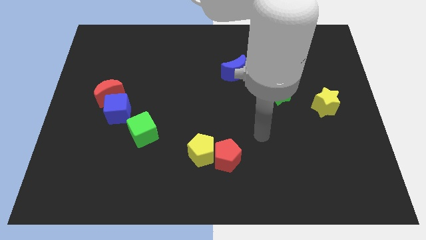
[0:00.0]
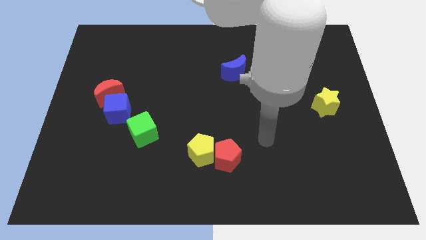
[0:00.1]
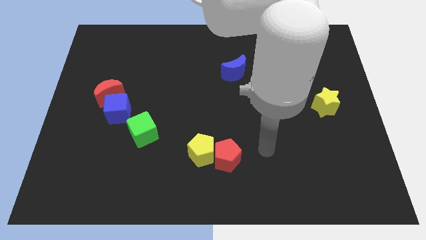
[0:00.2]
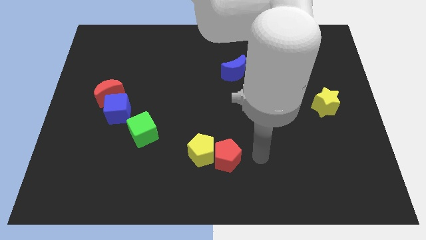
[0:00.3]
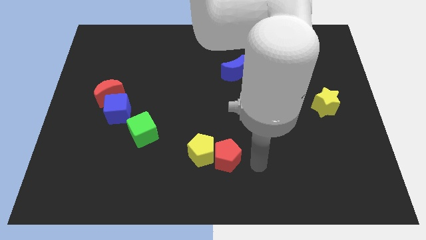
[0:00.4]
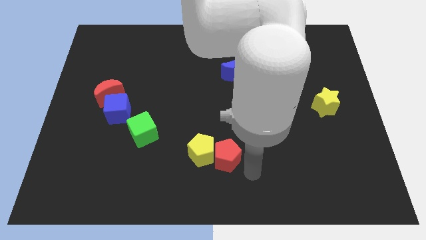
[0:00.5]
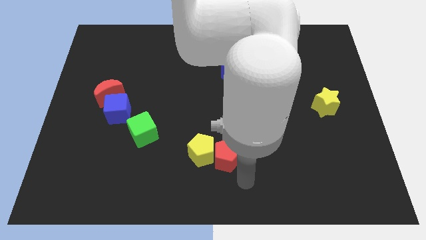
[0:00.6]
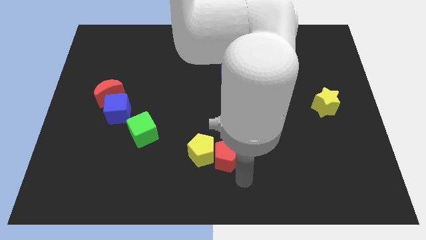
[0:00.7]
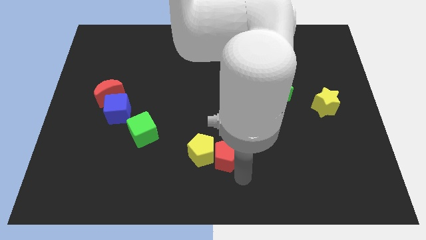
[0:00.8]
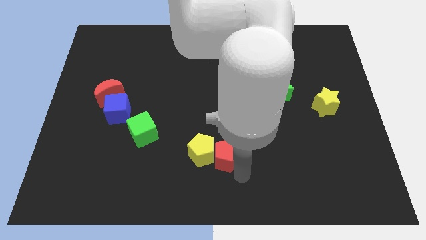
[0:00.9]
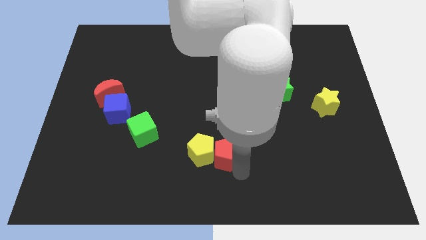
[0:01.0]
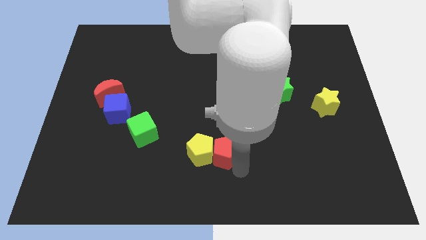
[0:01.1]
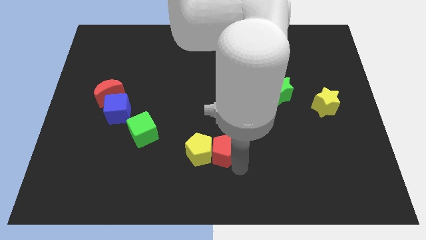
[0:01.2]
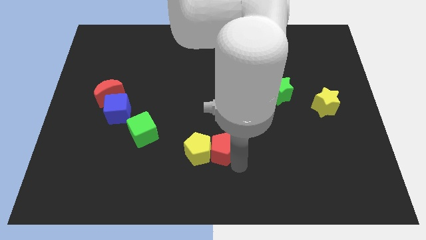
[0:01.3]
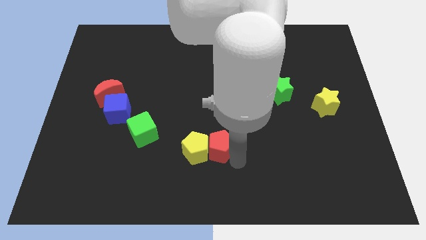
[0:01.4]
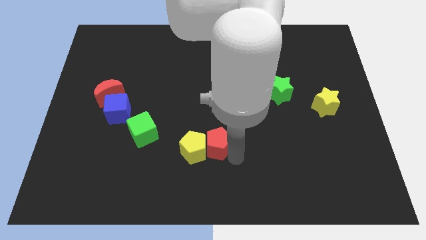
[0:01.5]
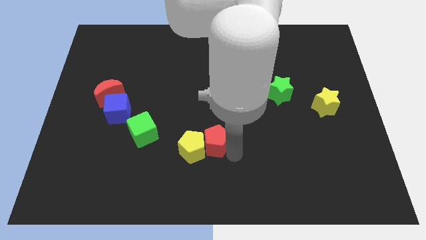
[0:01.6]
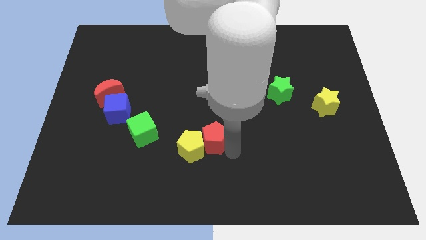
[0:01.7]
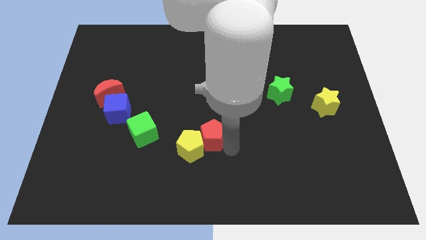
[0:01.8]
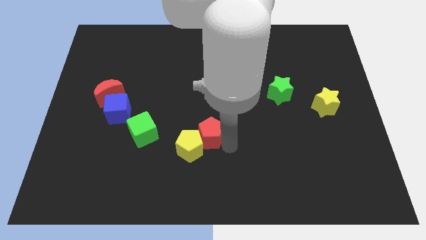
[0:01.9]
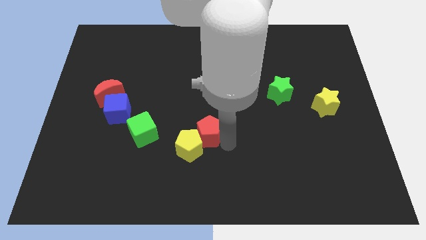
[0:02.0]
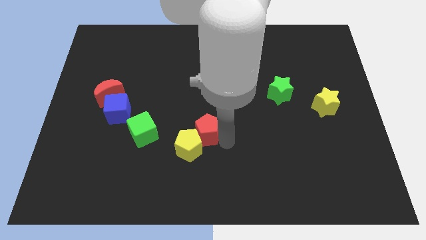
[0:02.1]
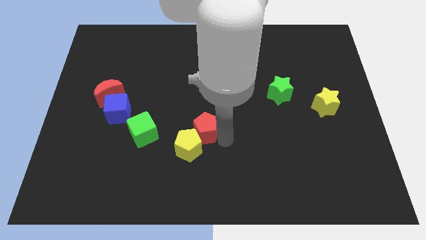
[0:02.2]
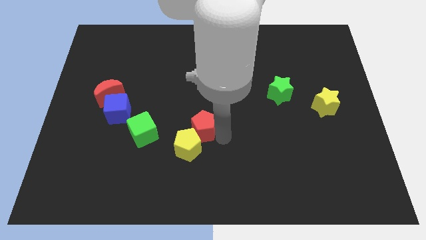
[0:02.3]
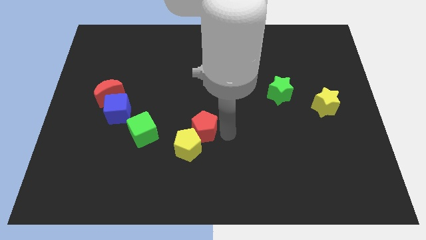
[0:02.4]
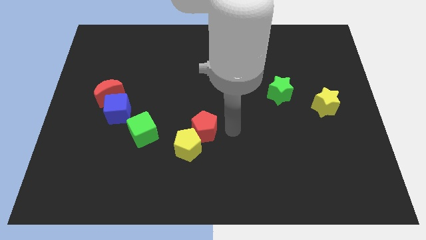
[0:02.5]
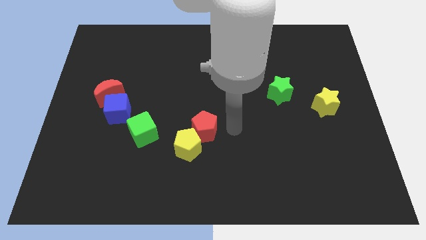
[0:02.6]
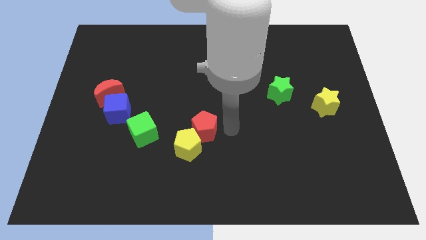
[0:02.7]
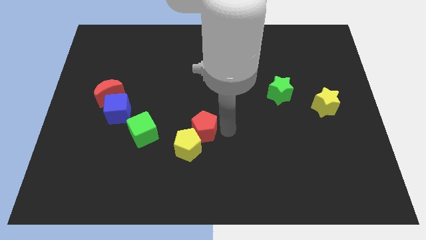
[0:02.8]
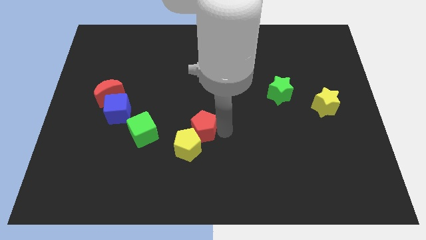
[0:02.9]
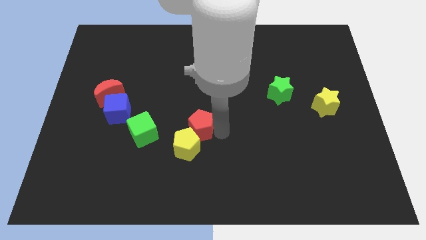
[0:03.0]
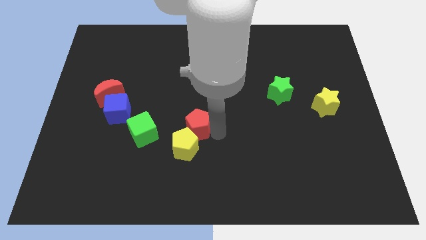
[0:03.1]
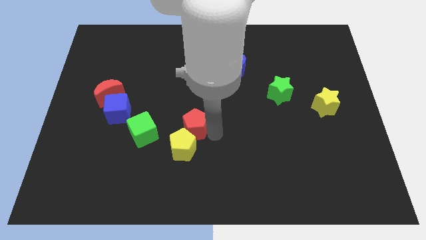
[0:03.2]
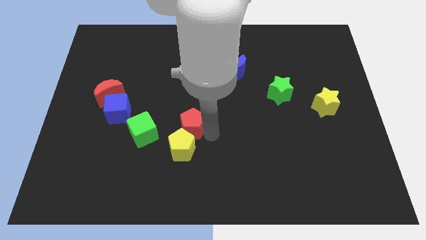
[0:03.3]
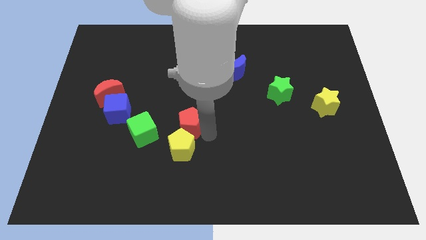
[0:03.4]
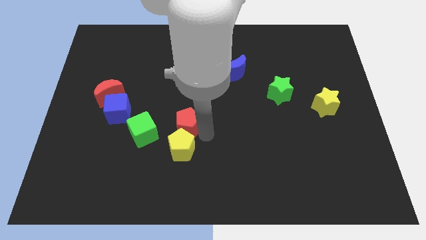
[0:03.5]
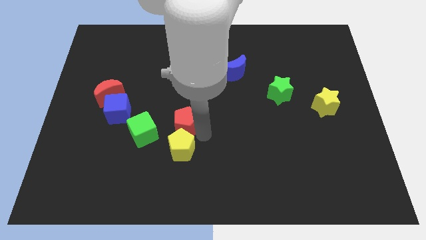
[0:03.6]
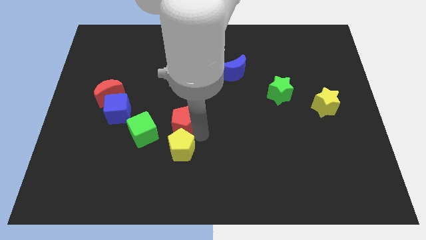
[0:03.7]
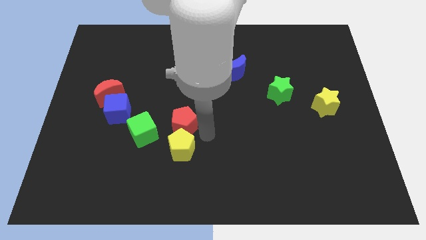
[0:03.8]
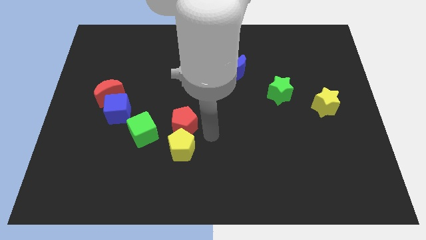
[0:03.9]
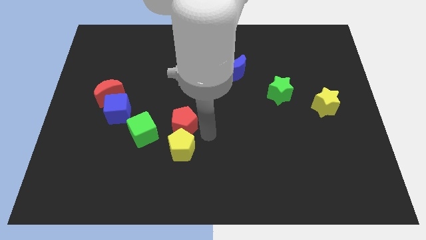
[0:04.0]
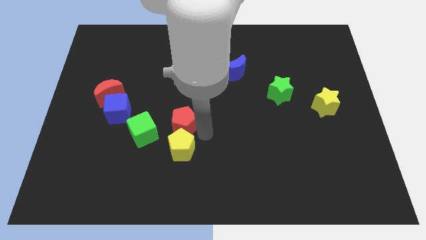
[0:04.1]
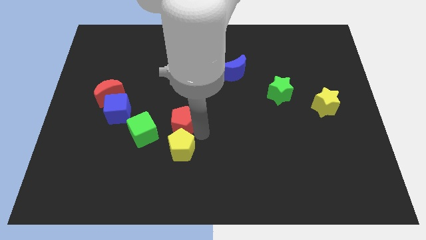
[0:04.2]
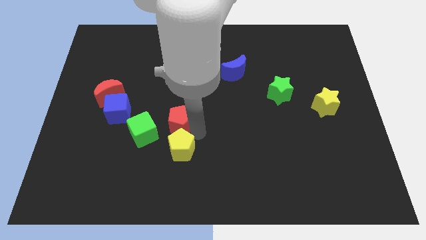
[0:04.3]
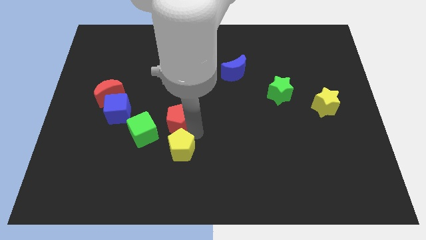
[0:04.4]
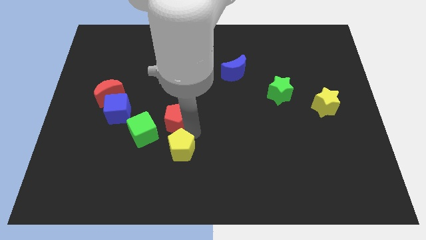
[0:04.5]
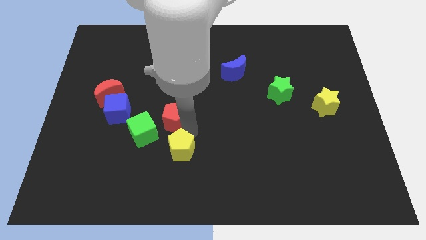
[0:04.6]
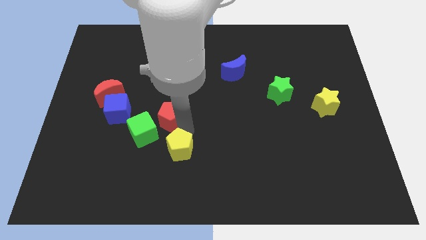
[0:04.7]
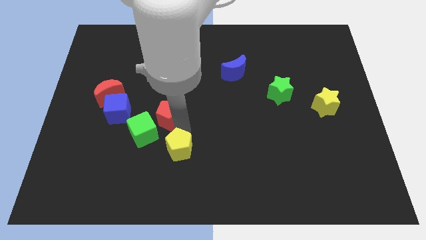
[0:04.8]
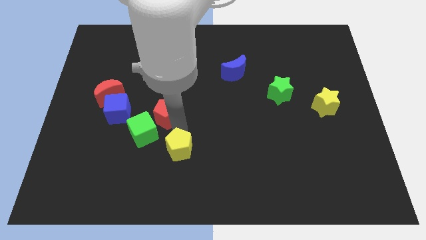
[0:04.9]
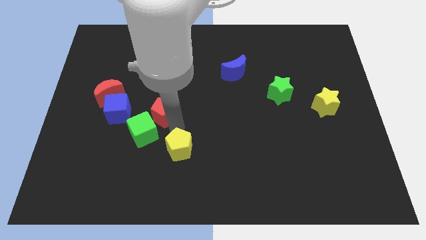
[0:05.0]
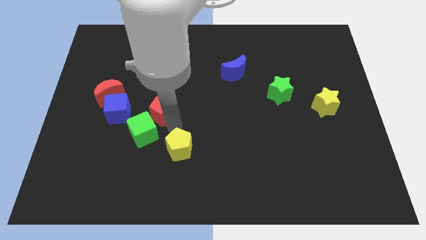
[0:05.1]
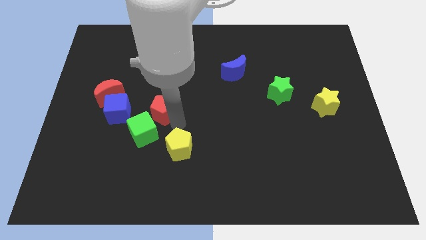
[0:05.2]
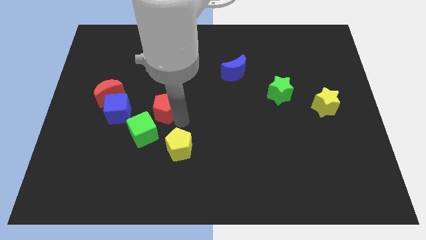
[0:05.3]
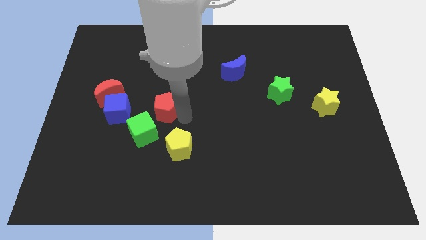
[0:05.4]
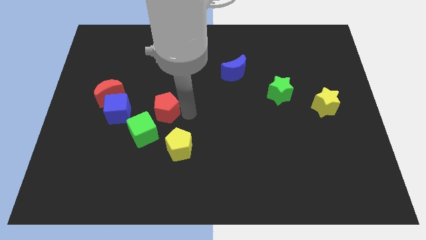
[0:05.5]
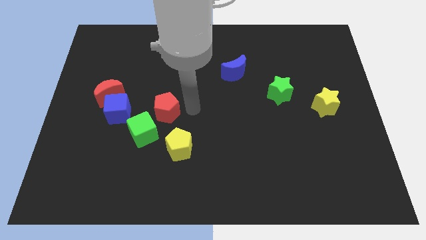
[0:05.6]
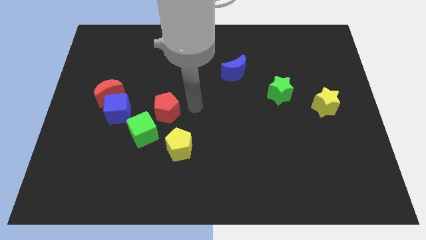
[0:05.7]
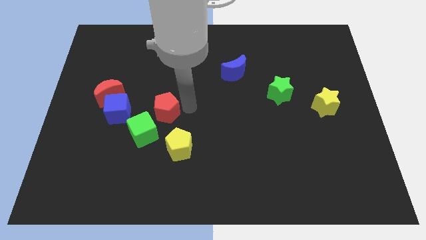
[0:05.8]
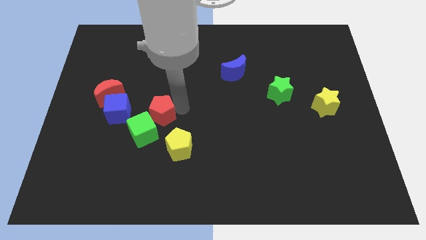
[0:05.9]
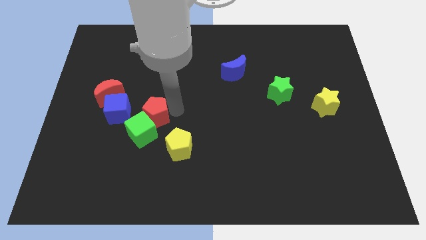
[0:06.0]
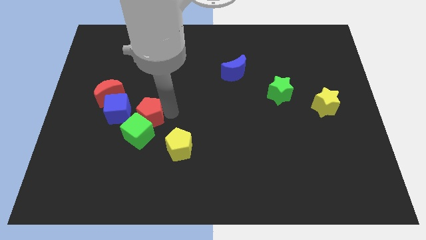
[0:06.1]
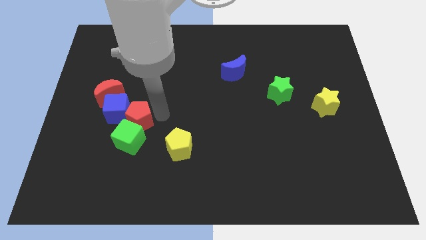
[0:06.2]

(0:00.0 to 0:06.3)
move the red pentagon next to the blue cube
